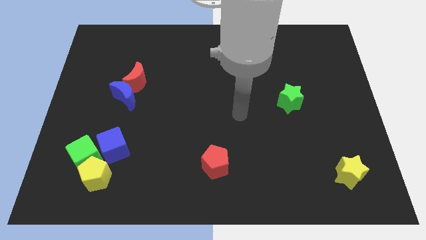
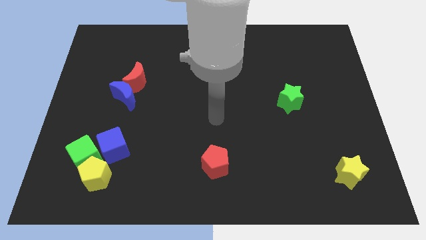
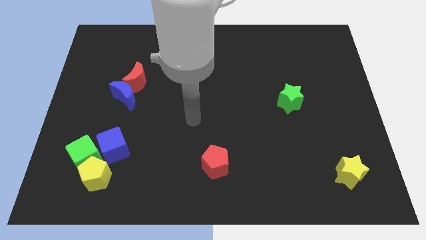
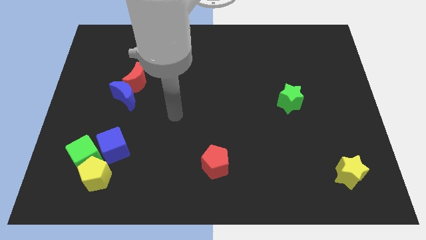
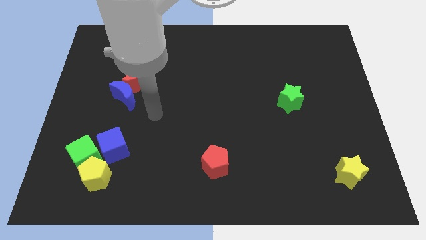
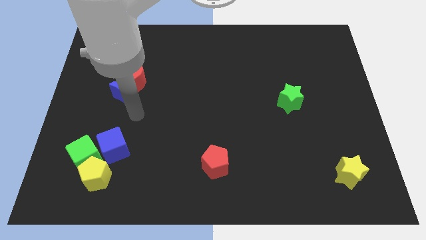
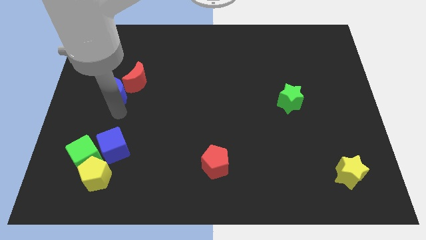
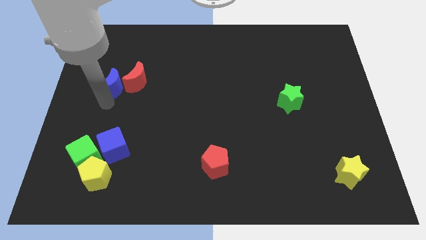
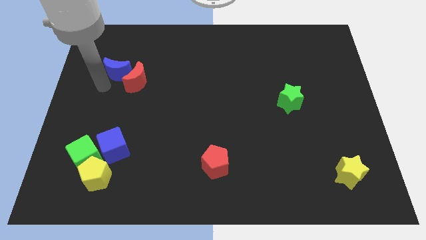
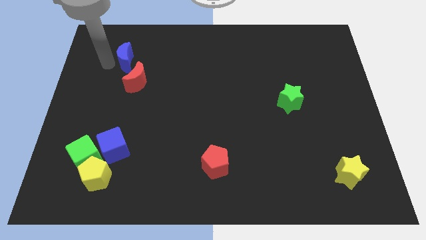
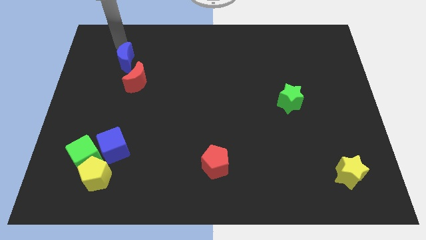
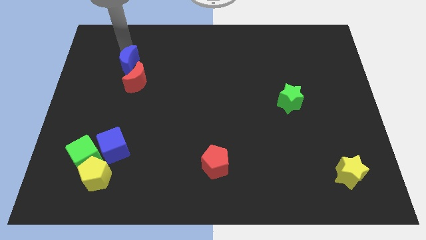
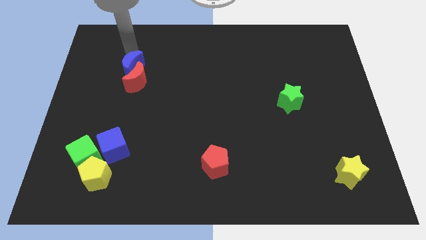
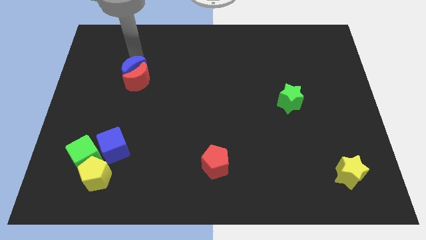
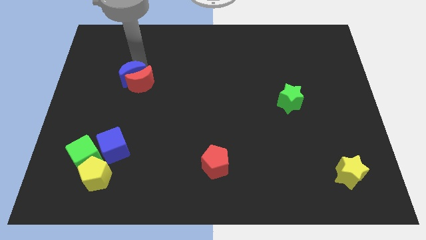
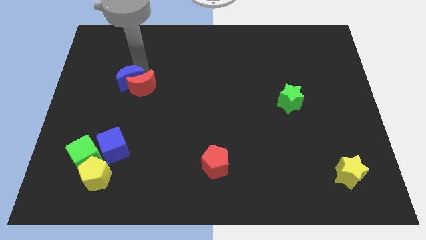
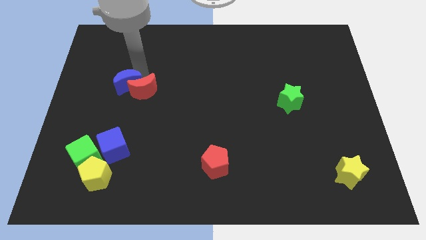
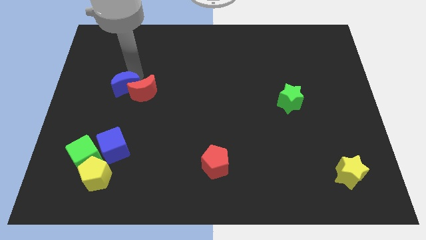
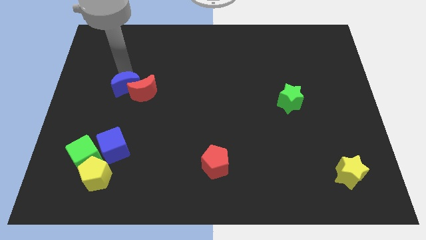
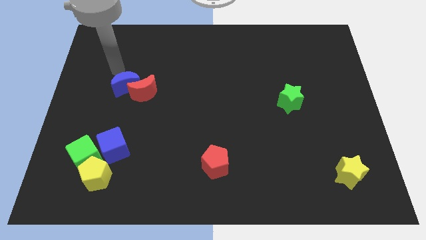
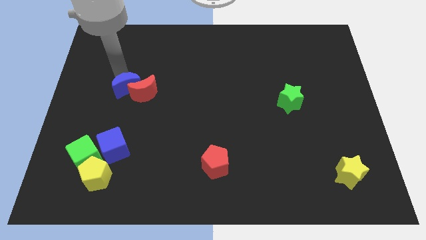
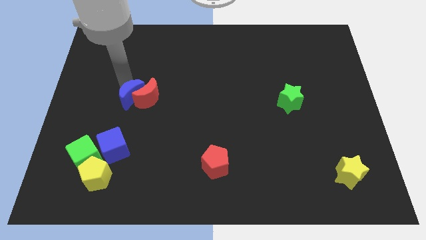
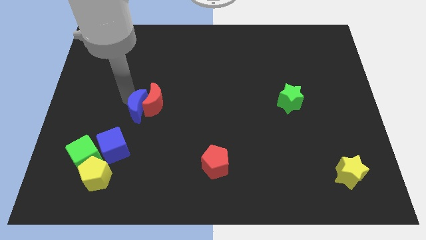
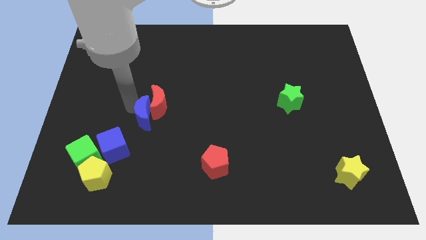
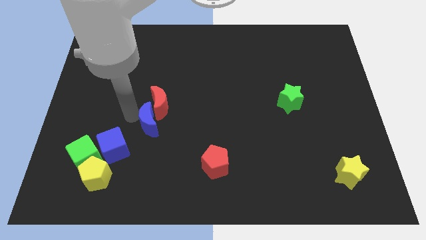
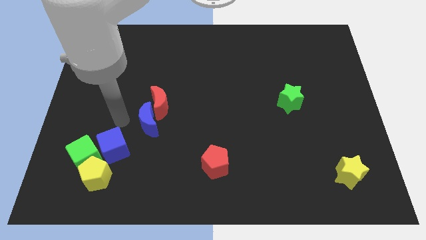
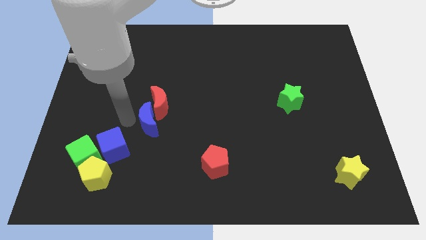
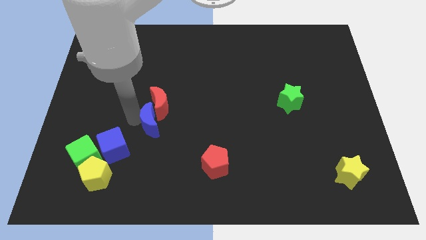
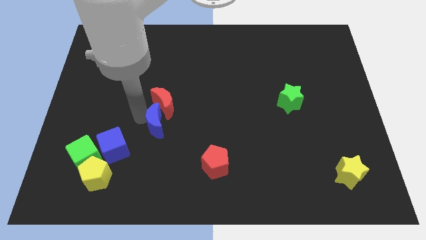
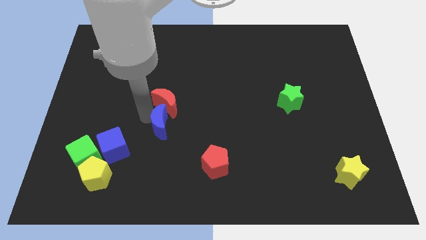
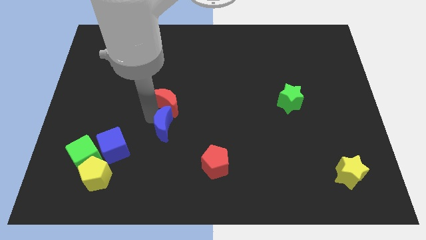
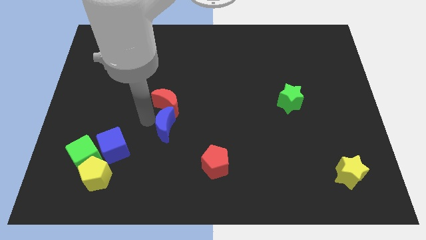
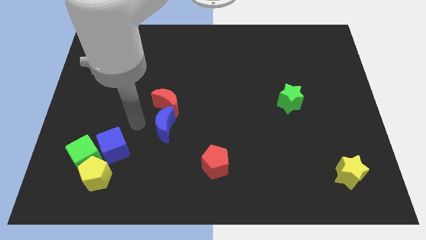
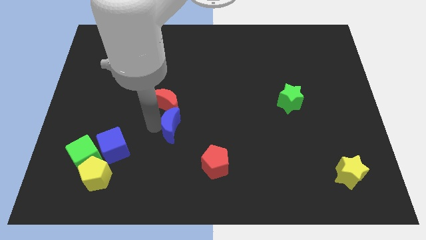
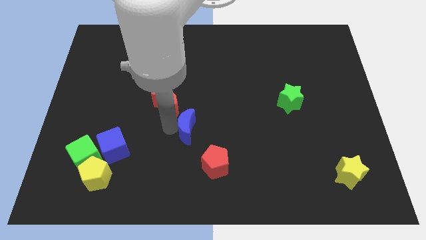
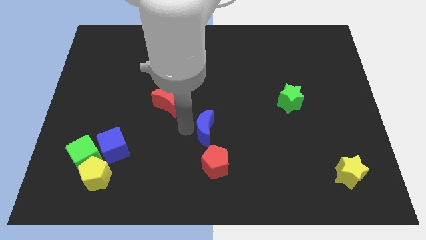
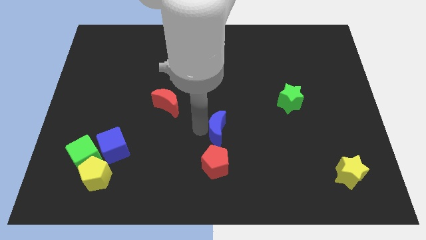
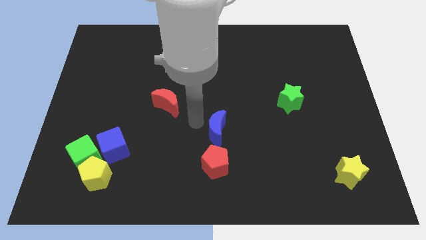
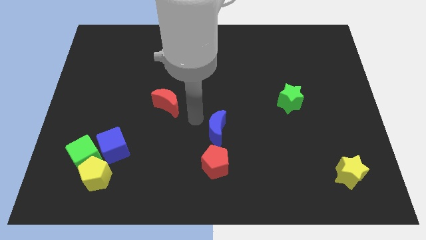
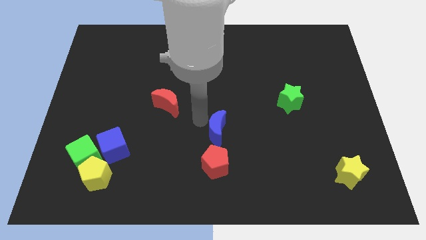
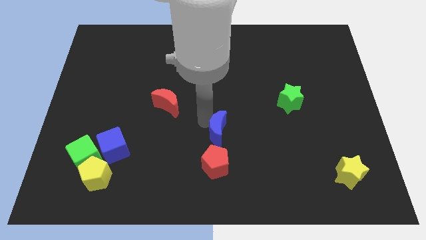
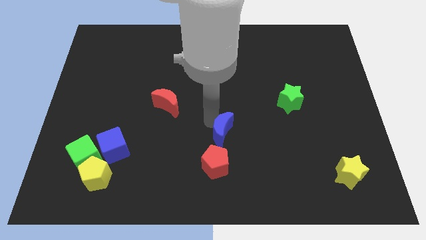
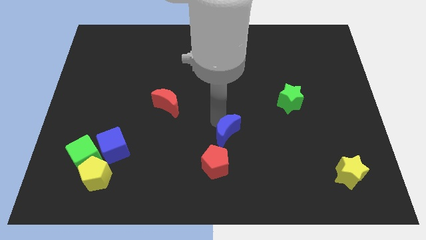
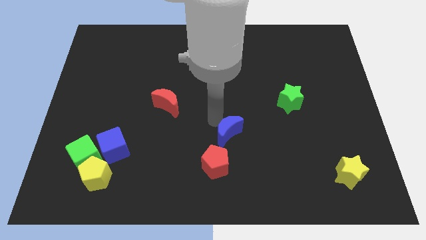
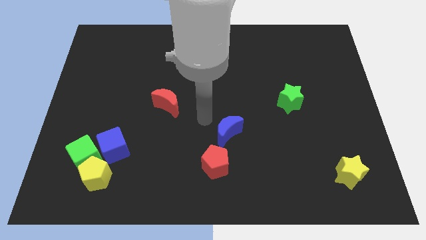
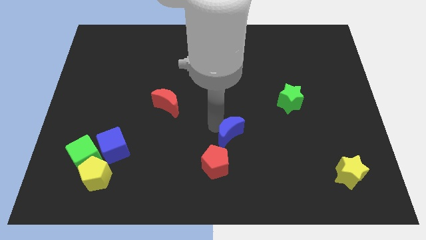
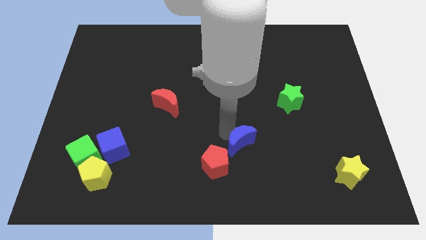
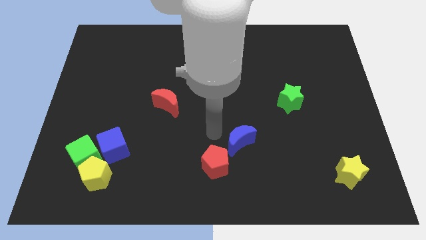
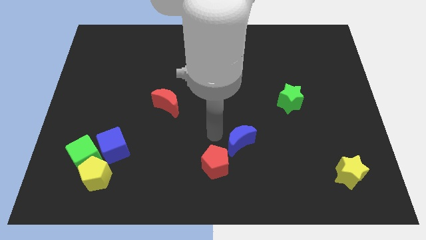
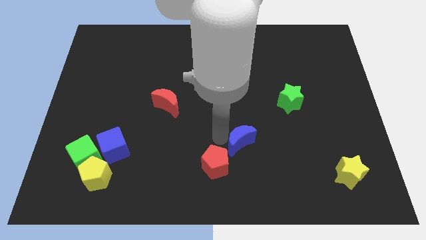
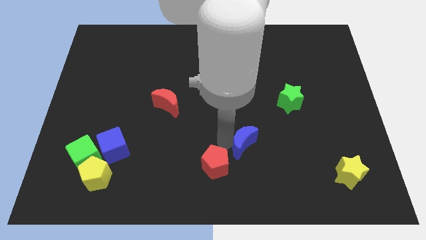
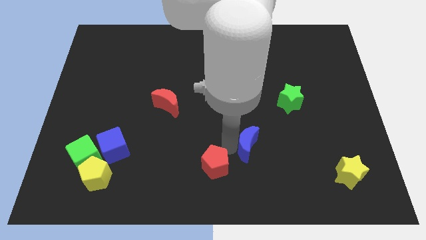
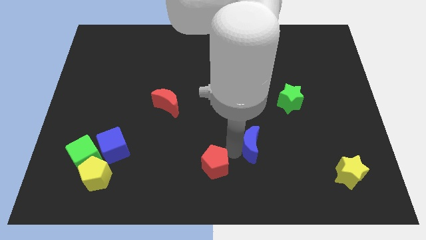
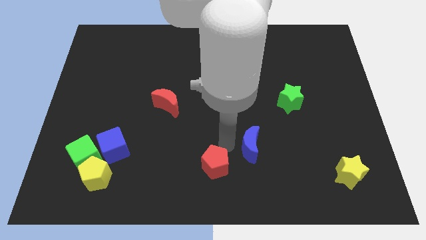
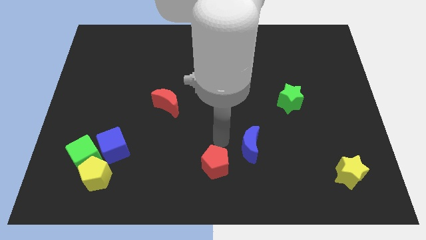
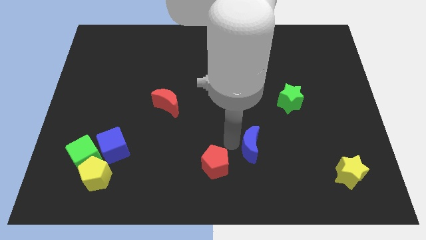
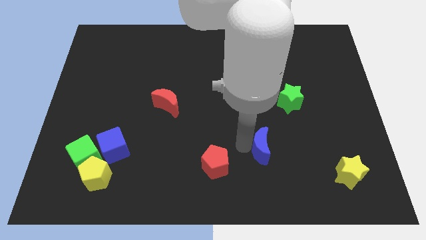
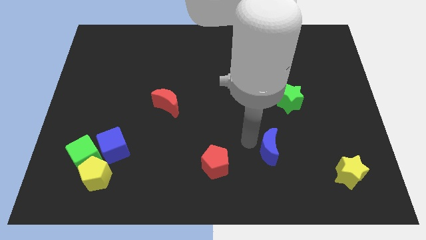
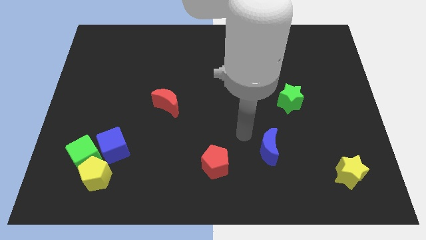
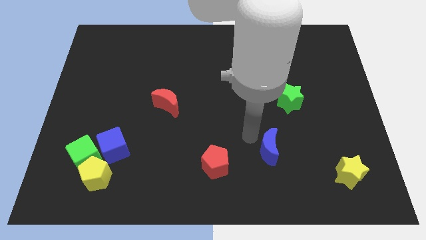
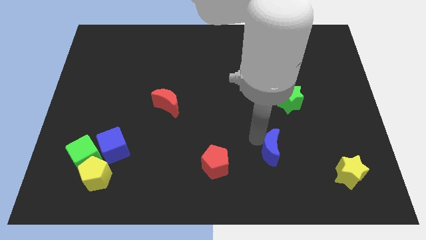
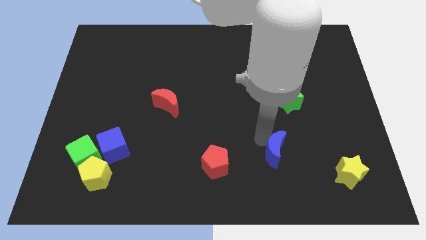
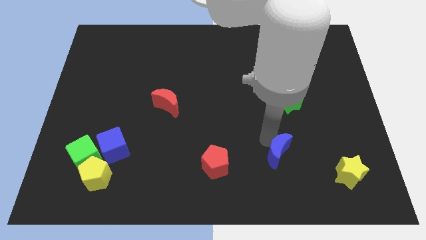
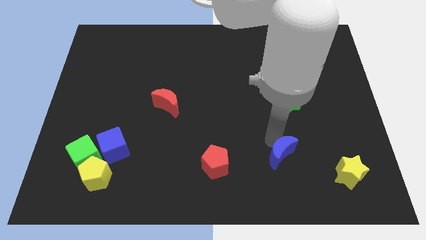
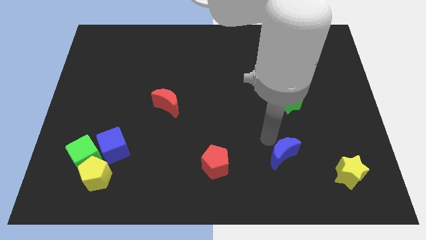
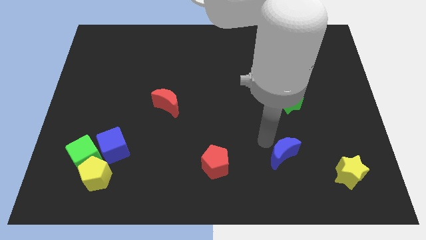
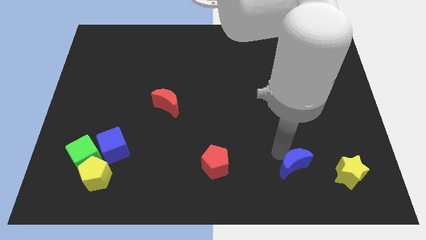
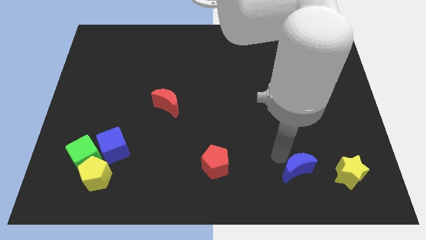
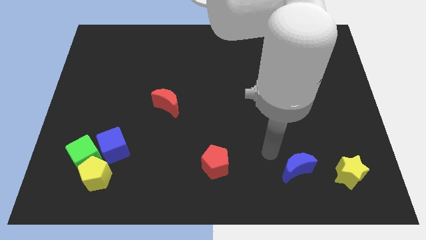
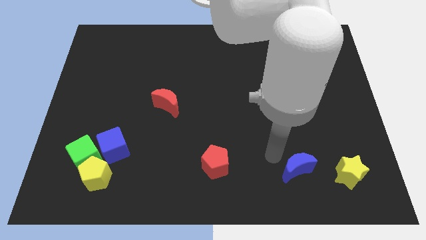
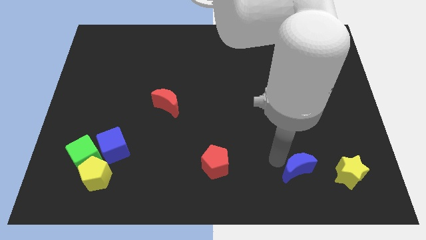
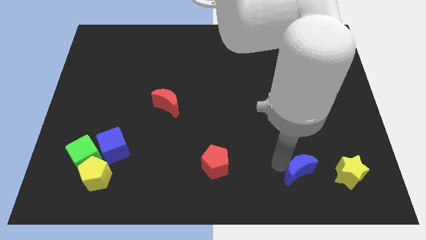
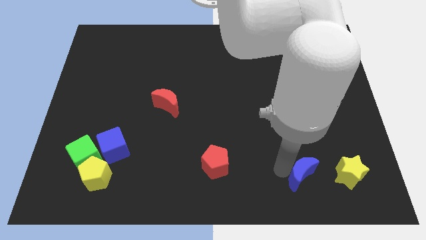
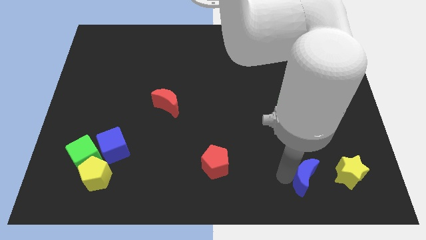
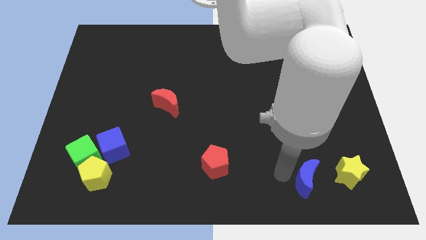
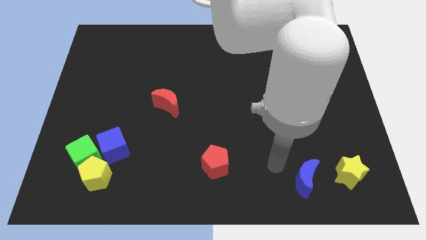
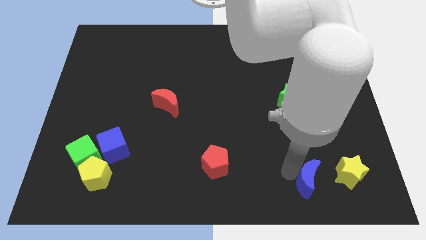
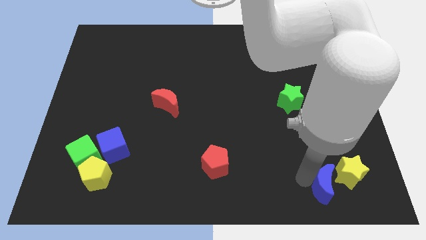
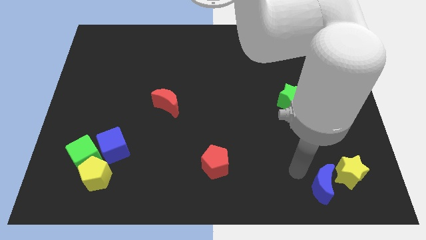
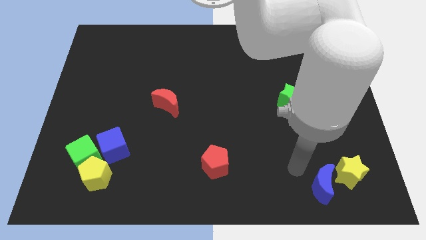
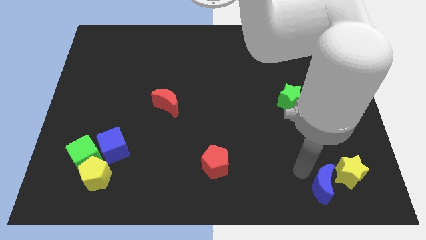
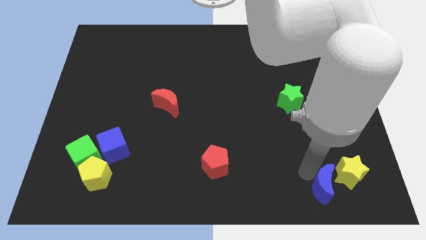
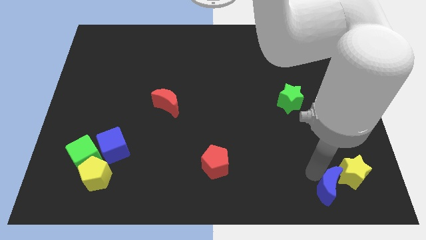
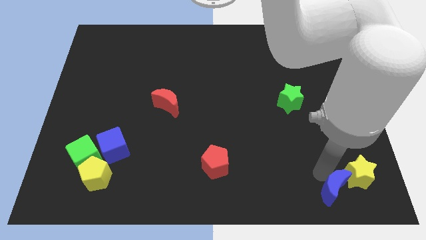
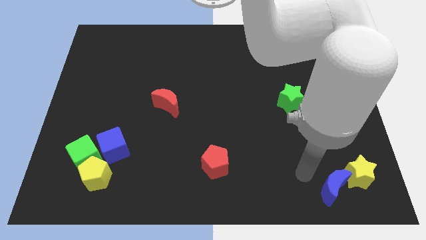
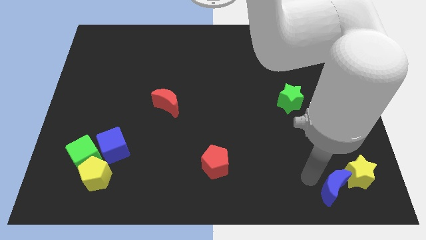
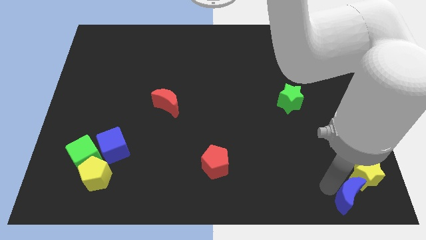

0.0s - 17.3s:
push the blue moon to the bottom right of the board
